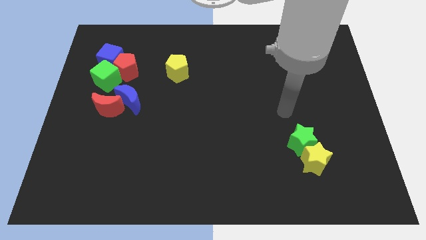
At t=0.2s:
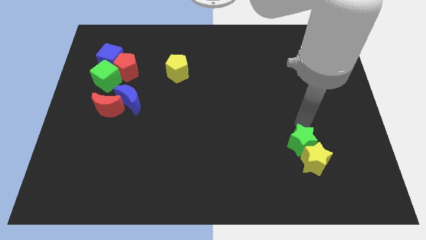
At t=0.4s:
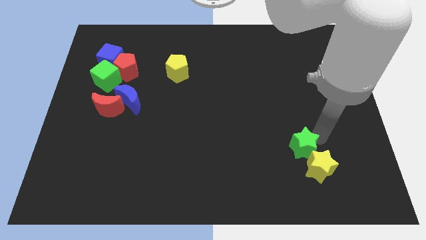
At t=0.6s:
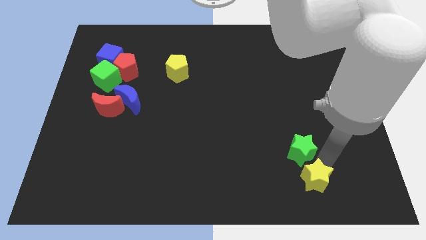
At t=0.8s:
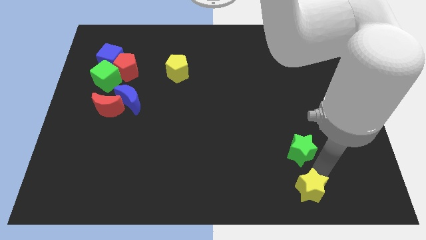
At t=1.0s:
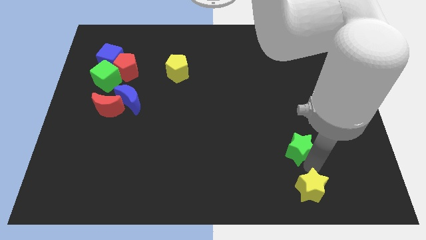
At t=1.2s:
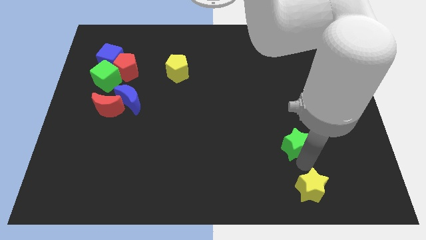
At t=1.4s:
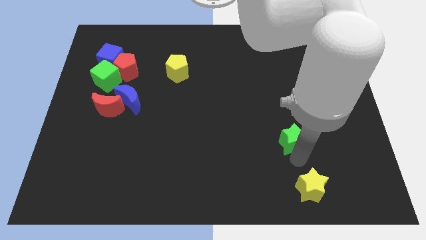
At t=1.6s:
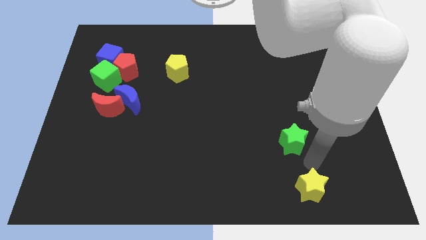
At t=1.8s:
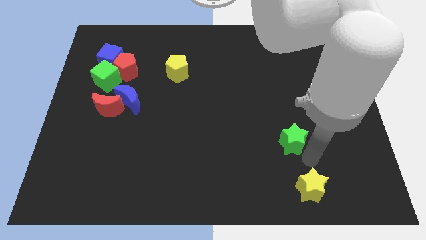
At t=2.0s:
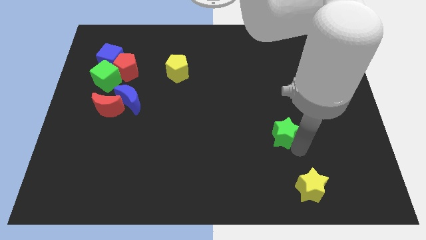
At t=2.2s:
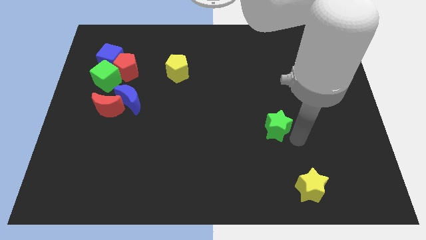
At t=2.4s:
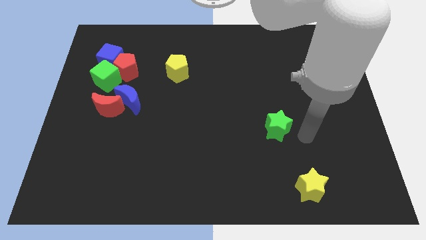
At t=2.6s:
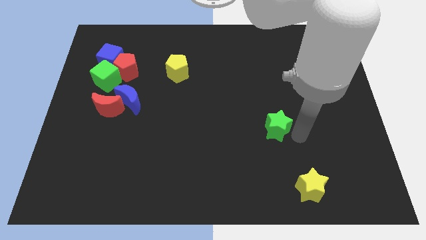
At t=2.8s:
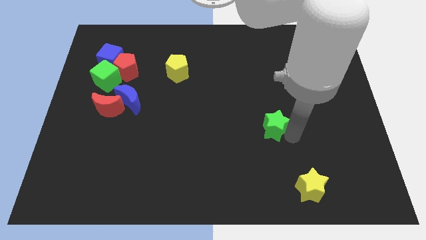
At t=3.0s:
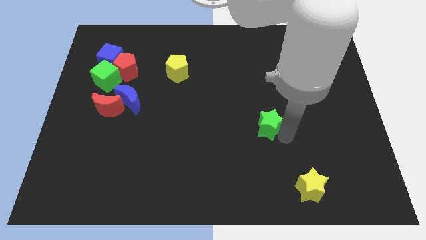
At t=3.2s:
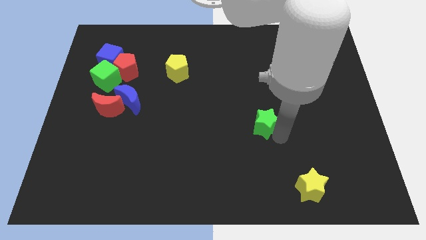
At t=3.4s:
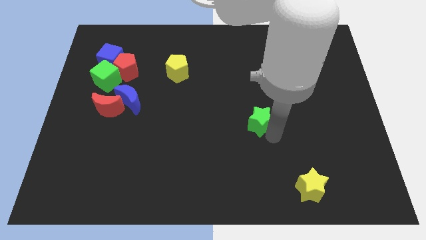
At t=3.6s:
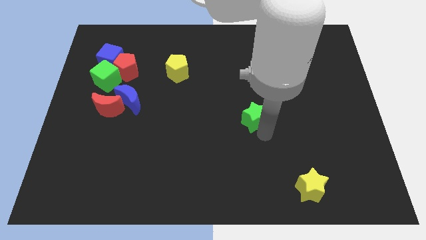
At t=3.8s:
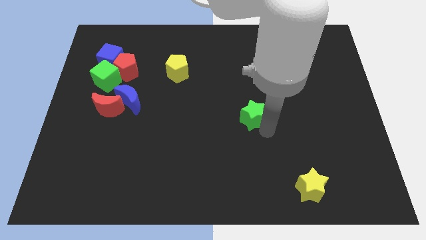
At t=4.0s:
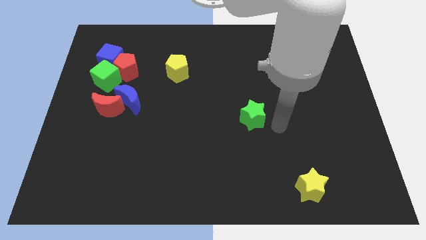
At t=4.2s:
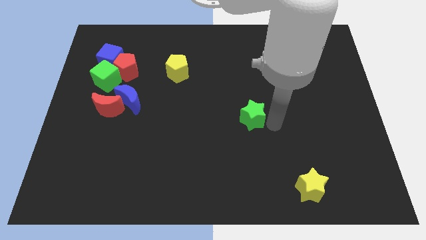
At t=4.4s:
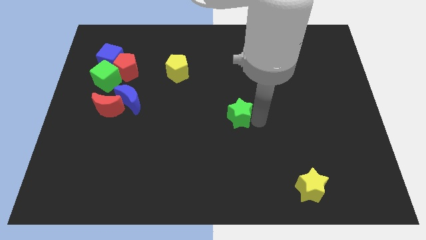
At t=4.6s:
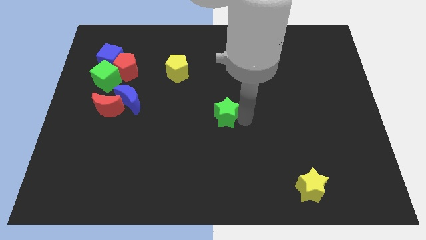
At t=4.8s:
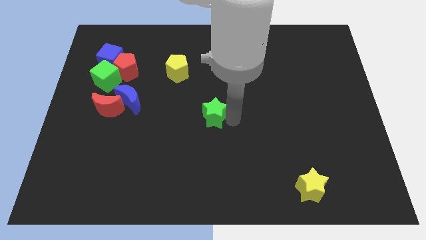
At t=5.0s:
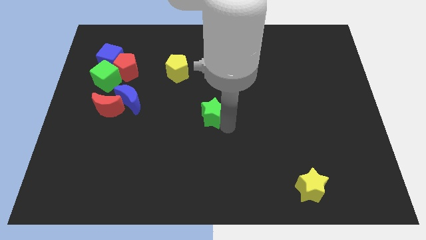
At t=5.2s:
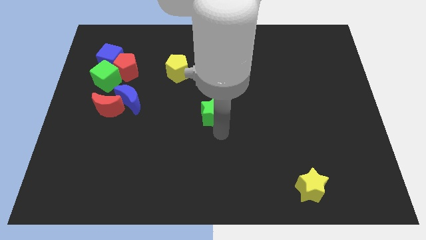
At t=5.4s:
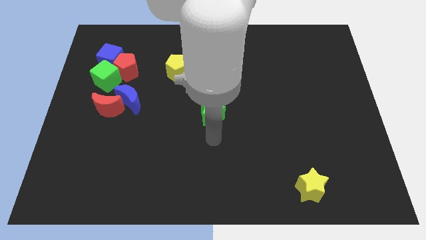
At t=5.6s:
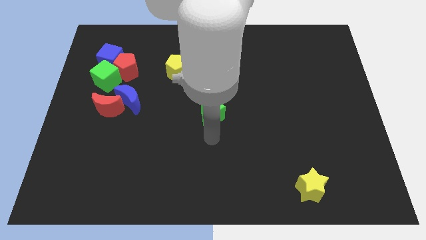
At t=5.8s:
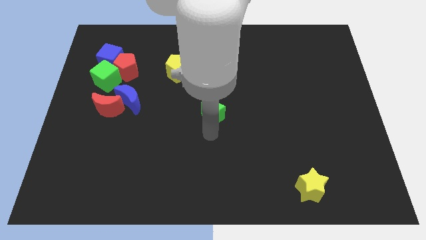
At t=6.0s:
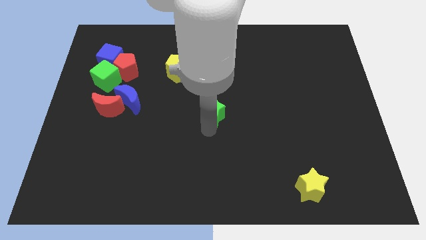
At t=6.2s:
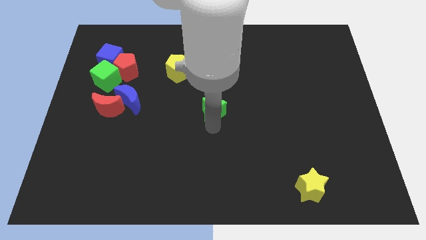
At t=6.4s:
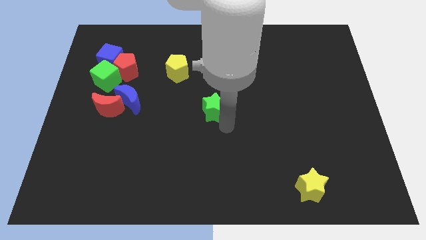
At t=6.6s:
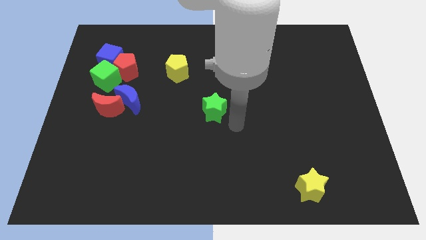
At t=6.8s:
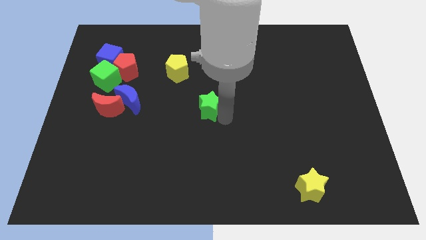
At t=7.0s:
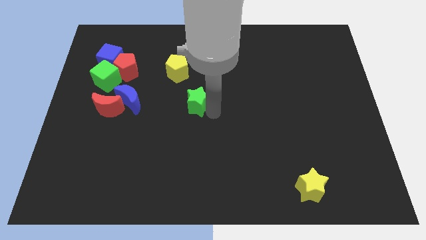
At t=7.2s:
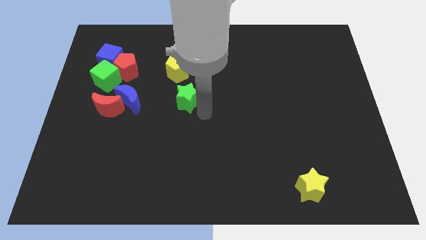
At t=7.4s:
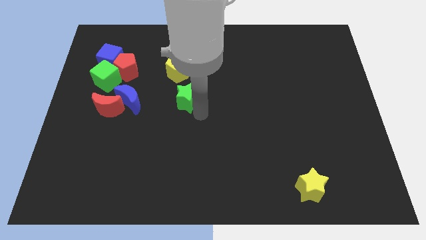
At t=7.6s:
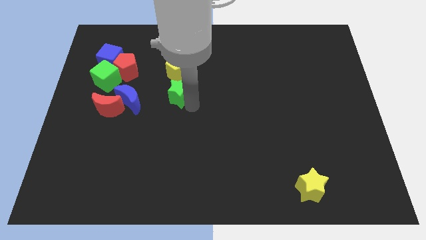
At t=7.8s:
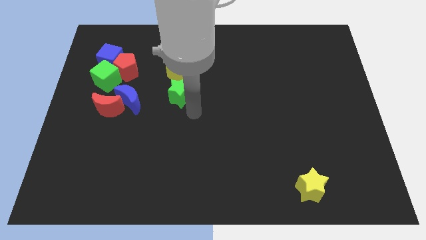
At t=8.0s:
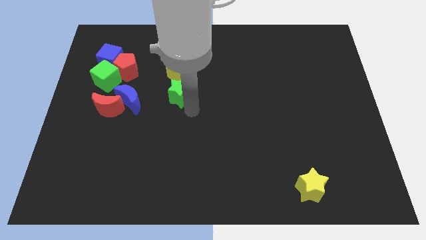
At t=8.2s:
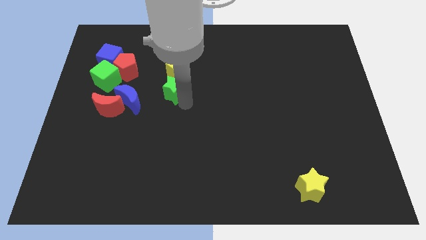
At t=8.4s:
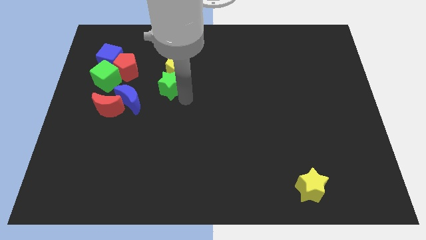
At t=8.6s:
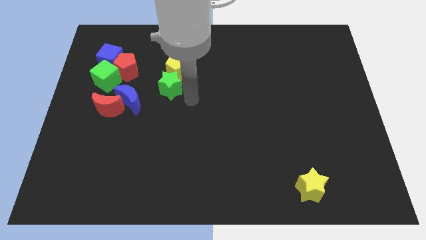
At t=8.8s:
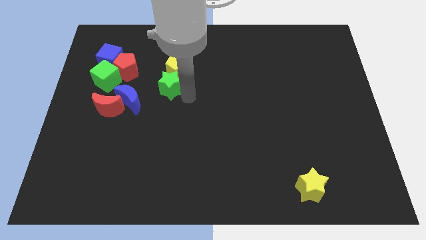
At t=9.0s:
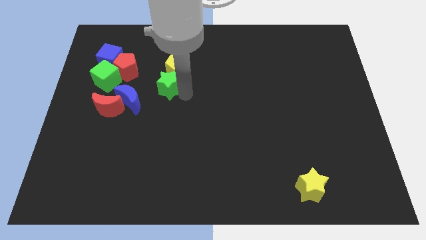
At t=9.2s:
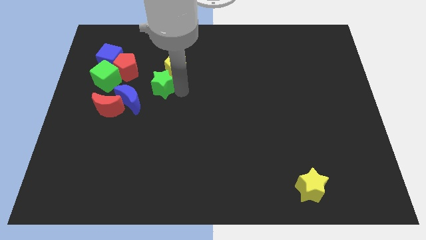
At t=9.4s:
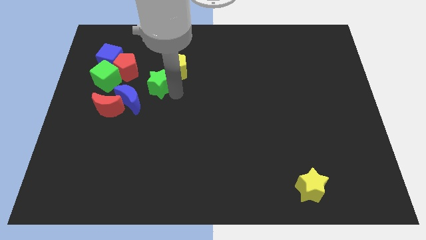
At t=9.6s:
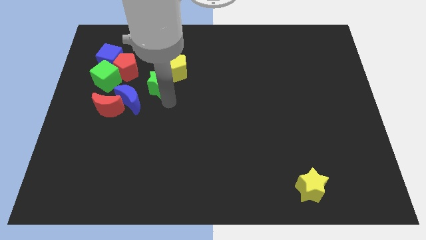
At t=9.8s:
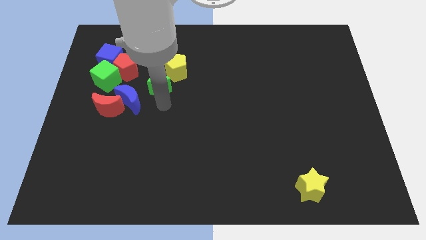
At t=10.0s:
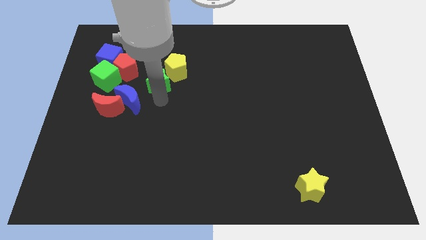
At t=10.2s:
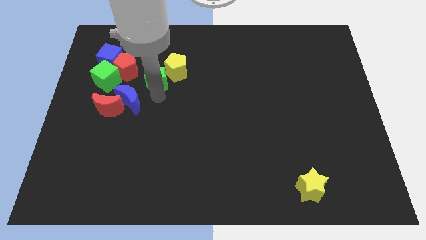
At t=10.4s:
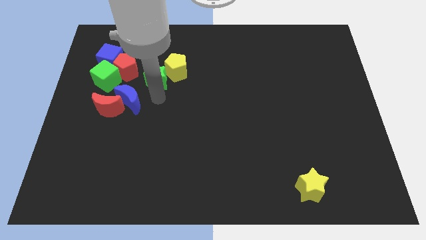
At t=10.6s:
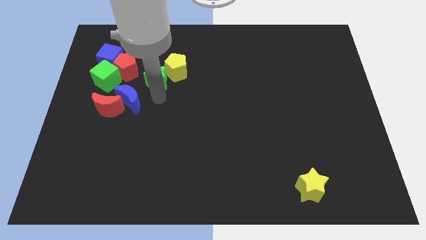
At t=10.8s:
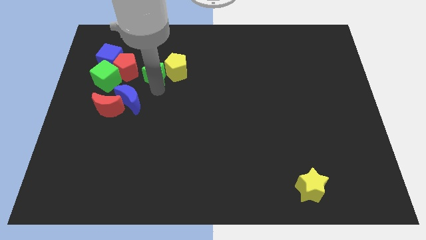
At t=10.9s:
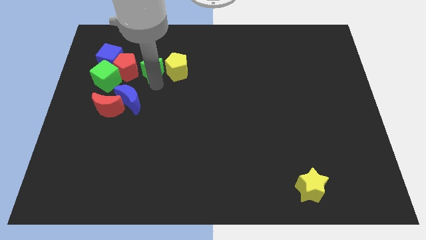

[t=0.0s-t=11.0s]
push the green star just right of the blue cube

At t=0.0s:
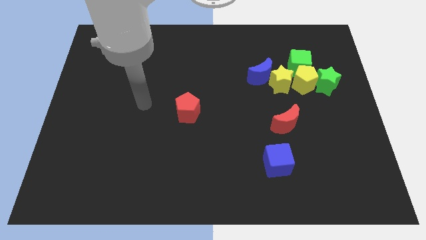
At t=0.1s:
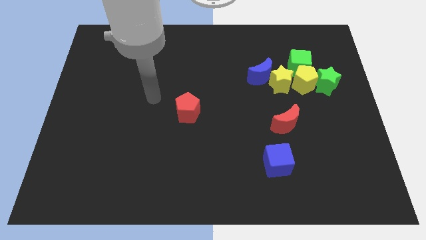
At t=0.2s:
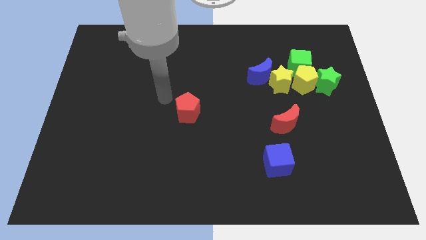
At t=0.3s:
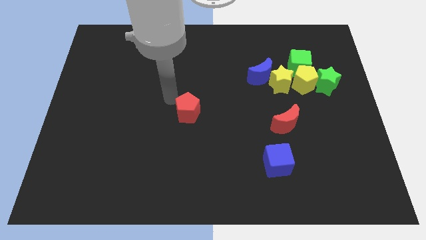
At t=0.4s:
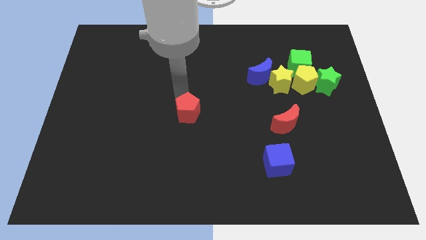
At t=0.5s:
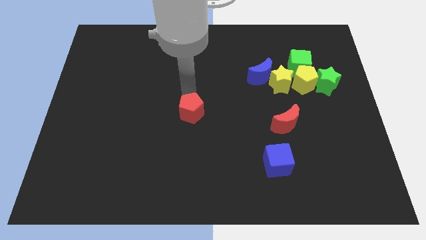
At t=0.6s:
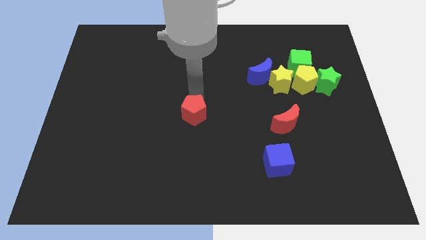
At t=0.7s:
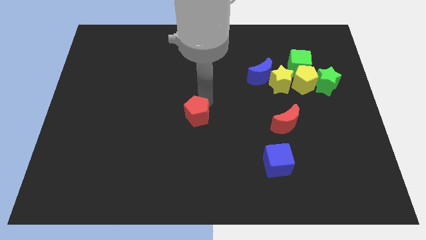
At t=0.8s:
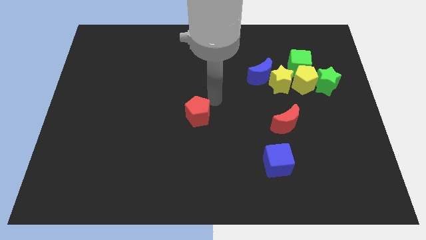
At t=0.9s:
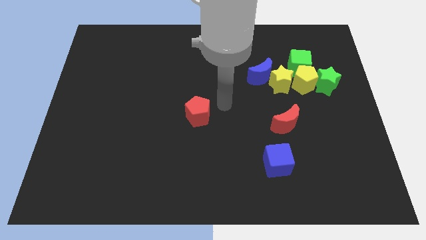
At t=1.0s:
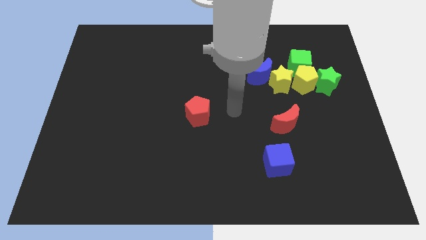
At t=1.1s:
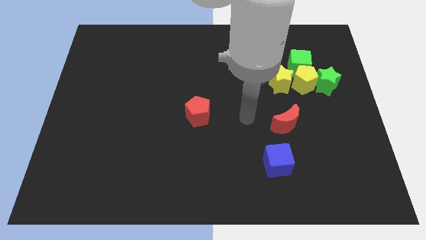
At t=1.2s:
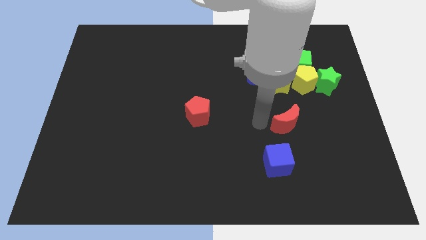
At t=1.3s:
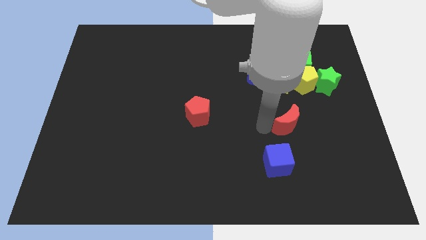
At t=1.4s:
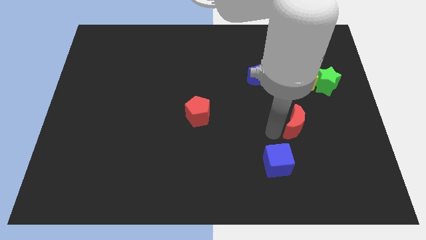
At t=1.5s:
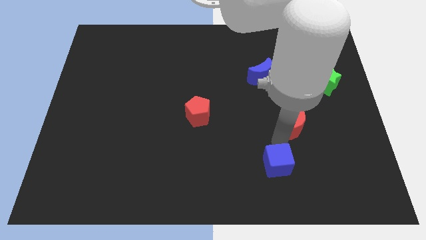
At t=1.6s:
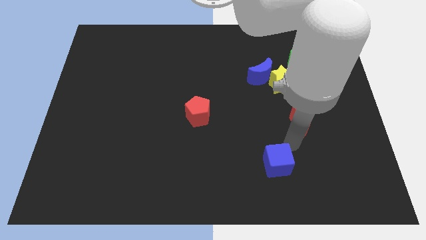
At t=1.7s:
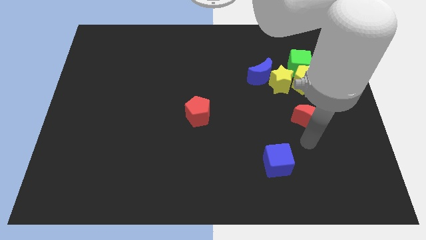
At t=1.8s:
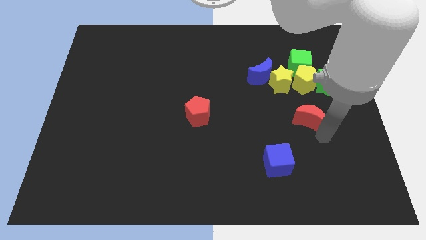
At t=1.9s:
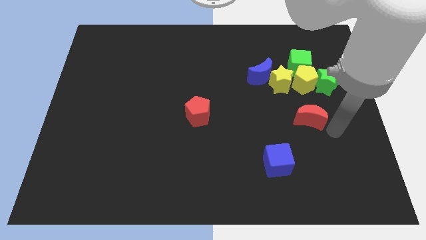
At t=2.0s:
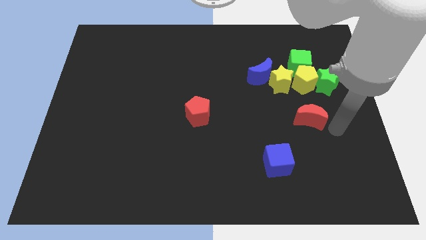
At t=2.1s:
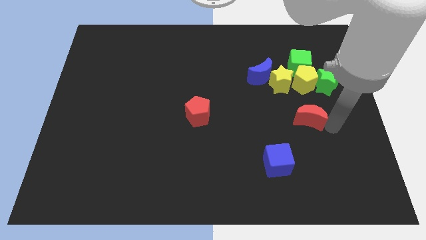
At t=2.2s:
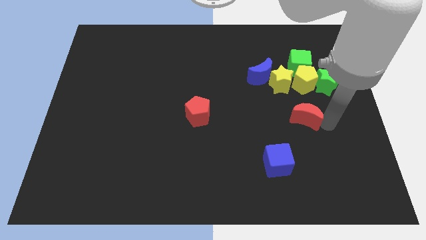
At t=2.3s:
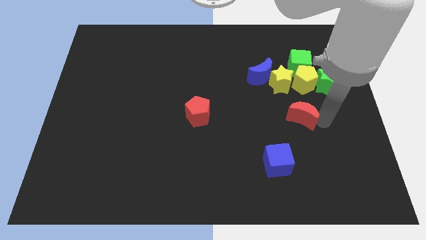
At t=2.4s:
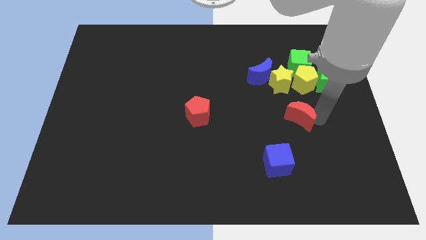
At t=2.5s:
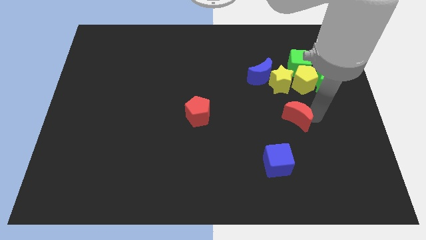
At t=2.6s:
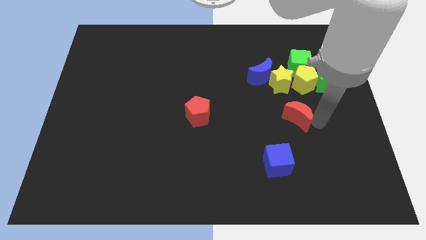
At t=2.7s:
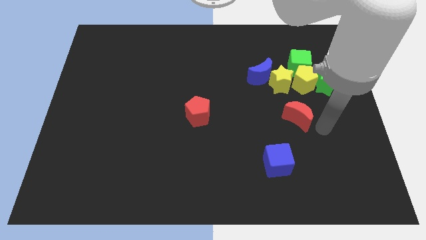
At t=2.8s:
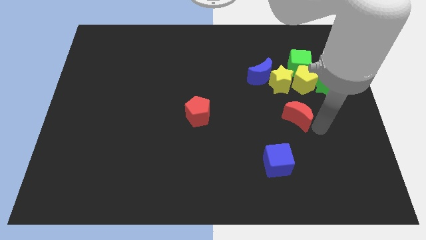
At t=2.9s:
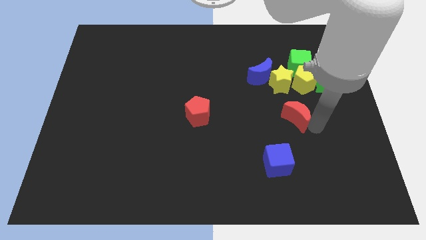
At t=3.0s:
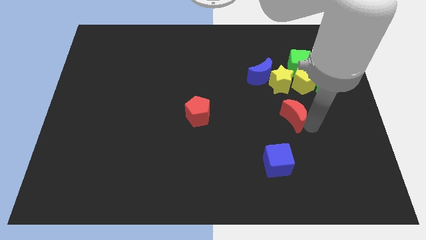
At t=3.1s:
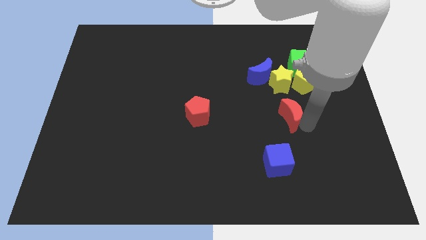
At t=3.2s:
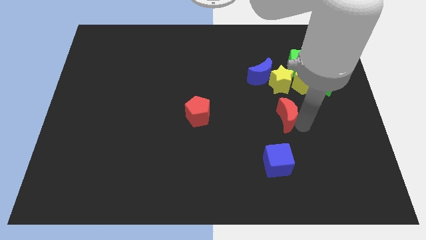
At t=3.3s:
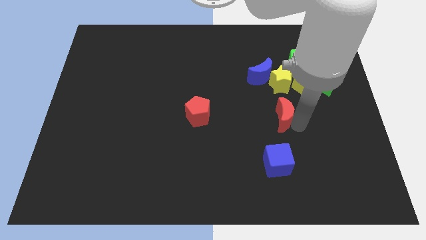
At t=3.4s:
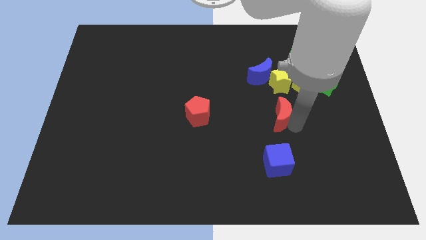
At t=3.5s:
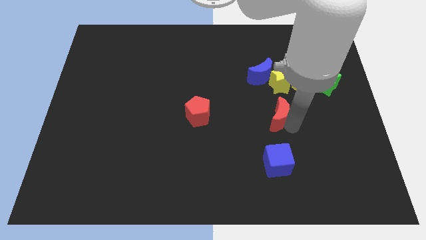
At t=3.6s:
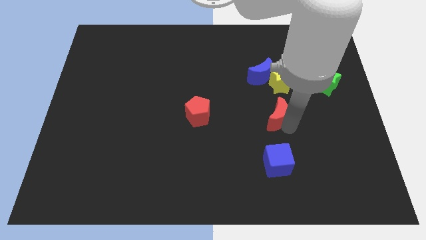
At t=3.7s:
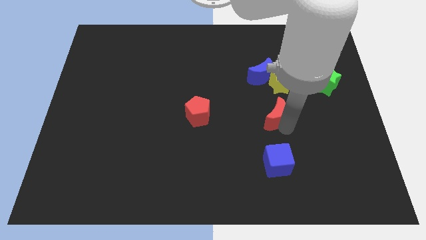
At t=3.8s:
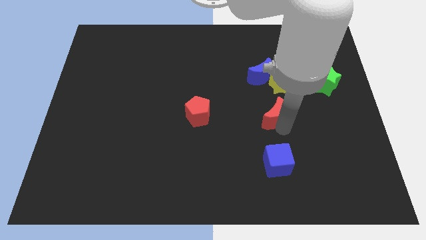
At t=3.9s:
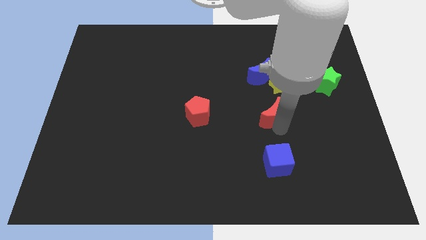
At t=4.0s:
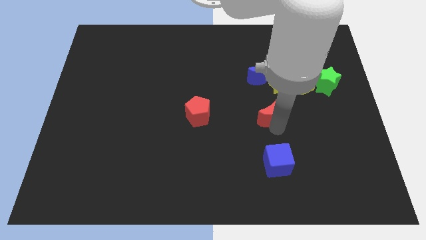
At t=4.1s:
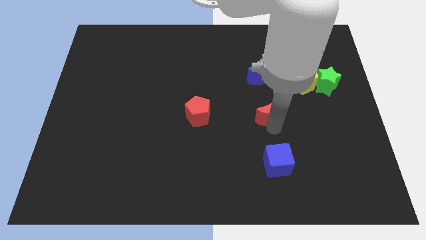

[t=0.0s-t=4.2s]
push the red moon to the bottom left of the yellow star
